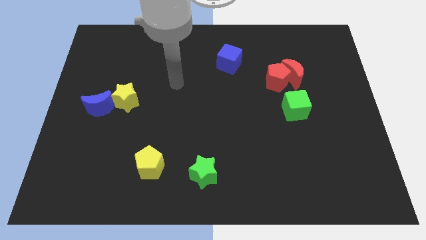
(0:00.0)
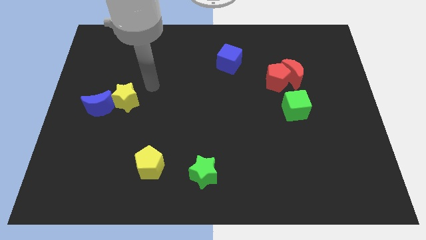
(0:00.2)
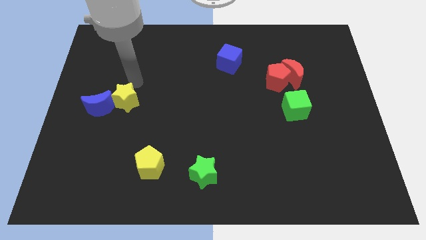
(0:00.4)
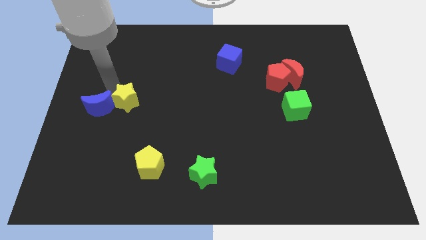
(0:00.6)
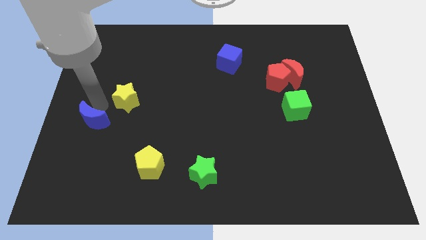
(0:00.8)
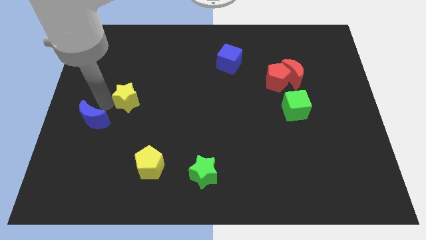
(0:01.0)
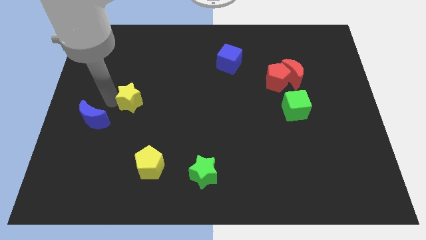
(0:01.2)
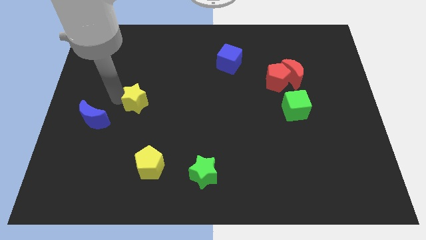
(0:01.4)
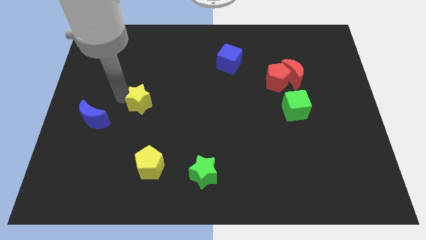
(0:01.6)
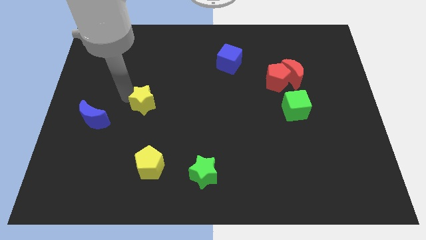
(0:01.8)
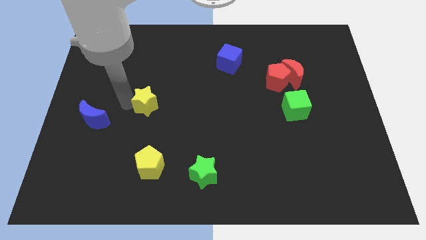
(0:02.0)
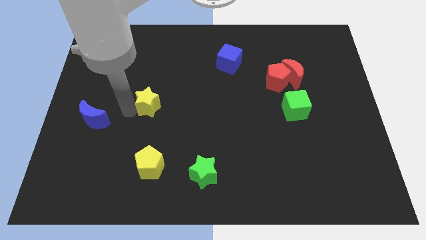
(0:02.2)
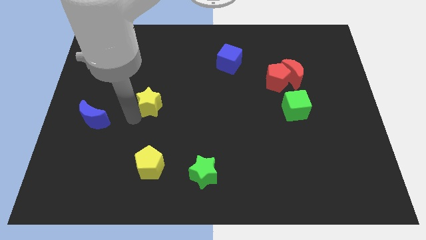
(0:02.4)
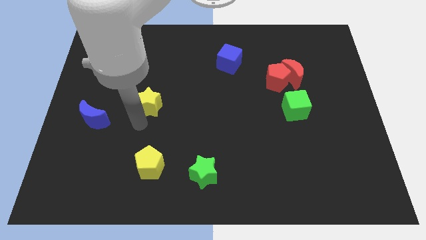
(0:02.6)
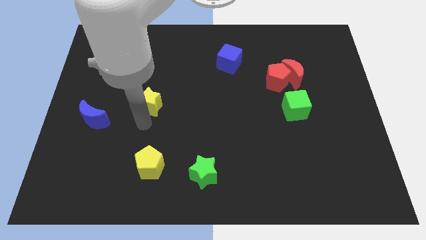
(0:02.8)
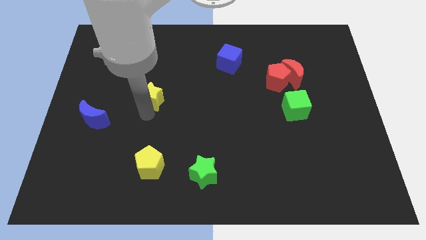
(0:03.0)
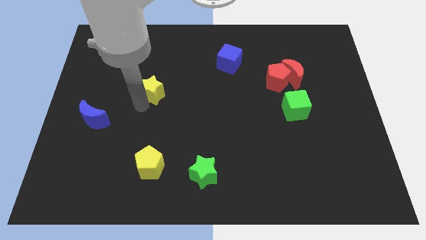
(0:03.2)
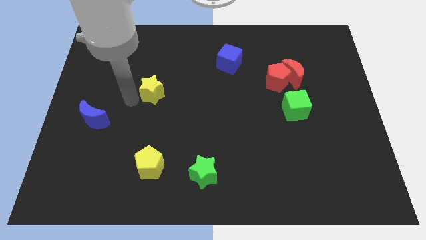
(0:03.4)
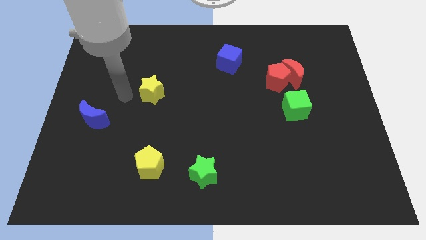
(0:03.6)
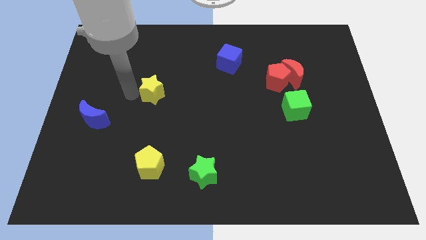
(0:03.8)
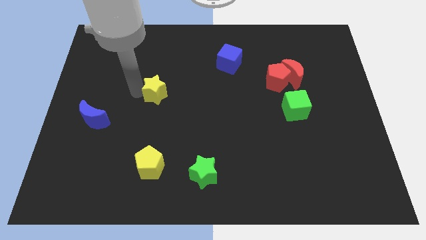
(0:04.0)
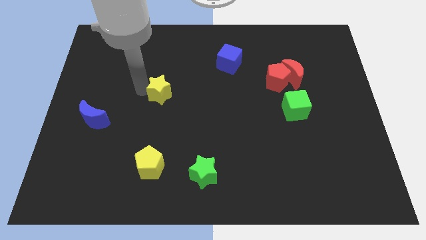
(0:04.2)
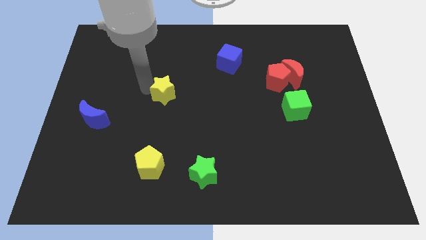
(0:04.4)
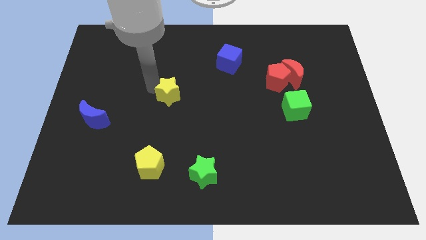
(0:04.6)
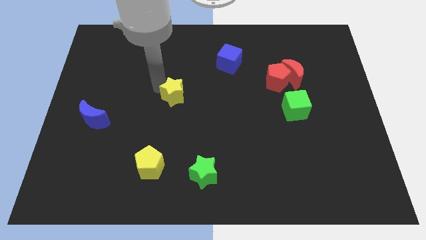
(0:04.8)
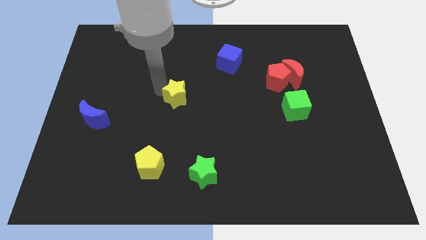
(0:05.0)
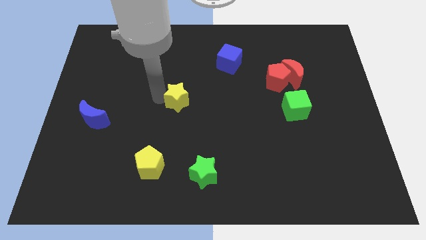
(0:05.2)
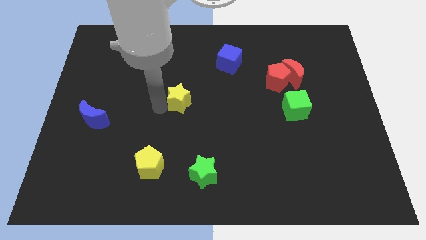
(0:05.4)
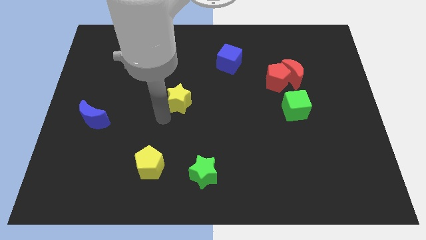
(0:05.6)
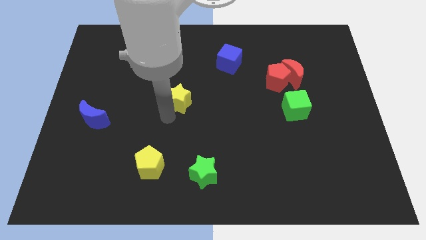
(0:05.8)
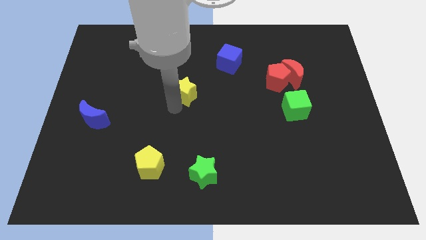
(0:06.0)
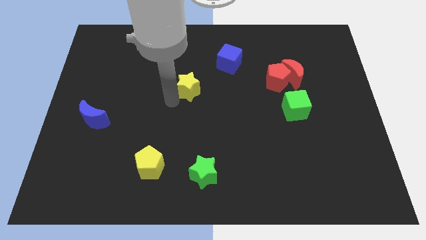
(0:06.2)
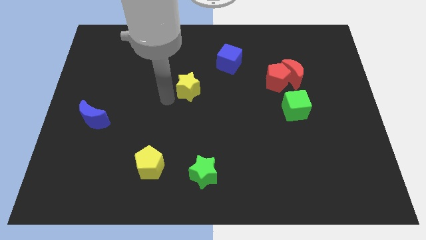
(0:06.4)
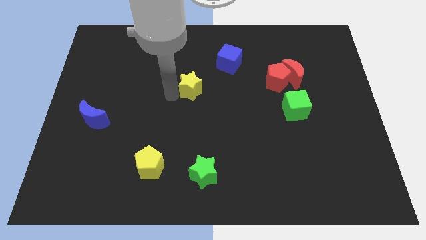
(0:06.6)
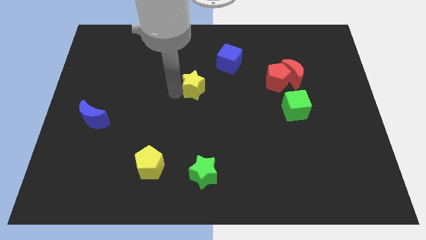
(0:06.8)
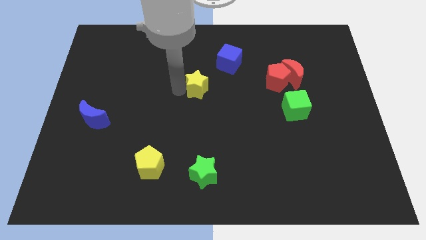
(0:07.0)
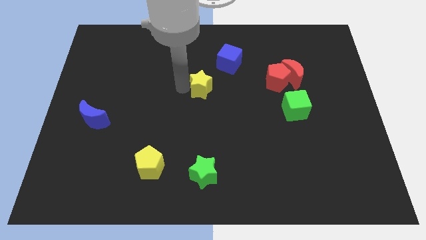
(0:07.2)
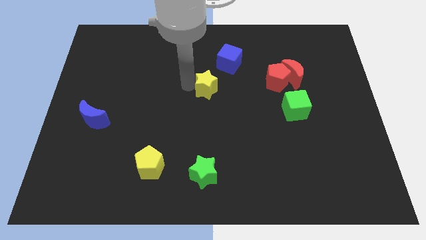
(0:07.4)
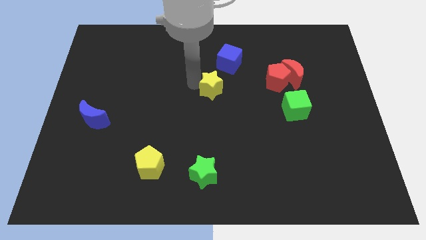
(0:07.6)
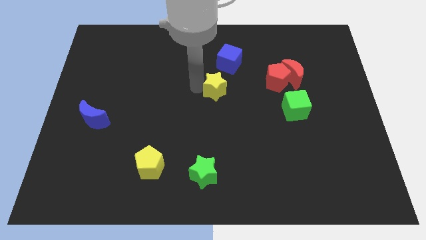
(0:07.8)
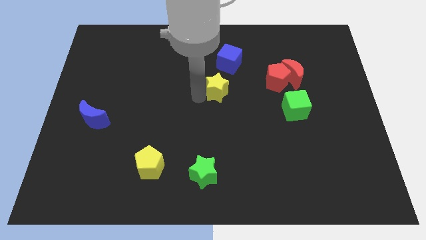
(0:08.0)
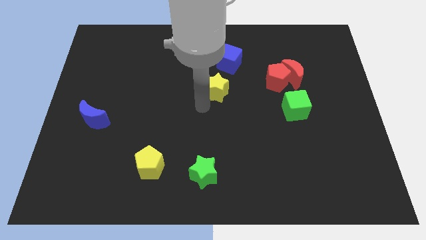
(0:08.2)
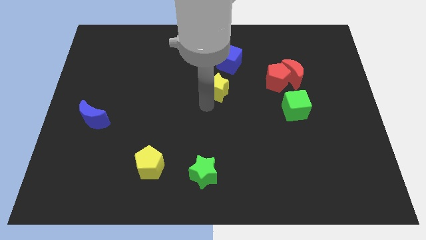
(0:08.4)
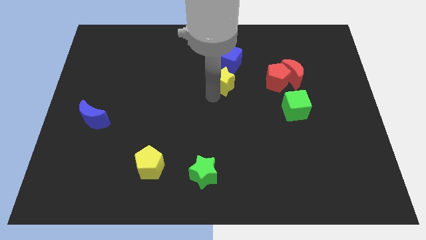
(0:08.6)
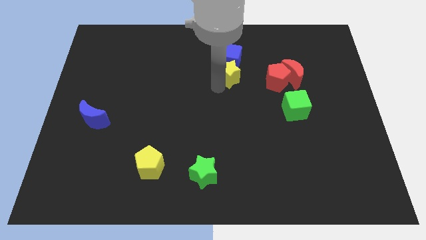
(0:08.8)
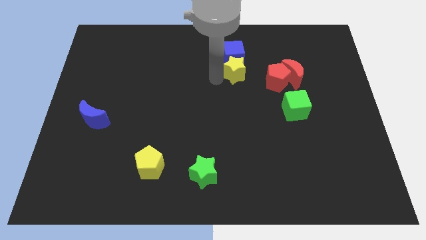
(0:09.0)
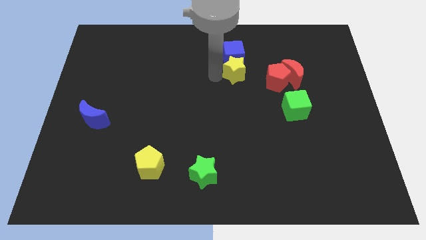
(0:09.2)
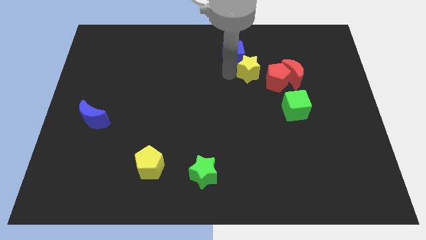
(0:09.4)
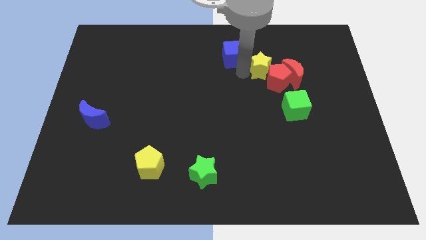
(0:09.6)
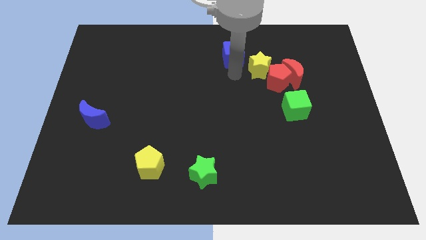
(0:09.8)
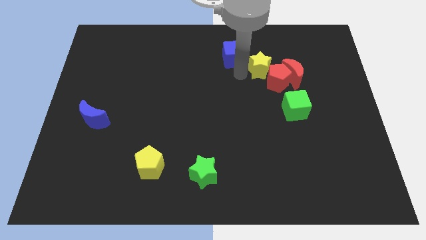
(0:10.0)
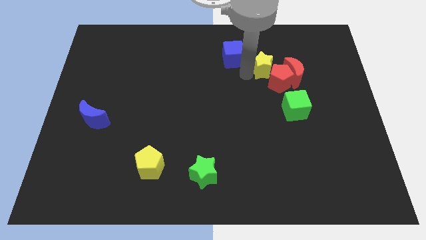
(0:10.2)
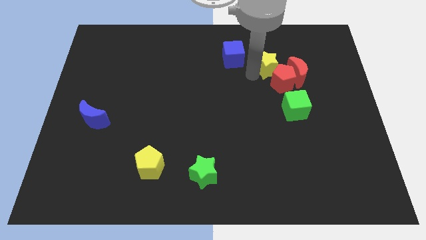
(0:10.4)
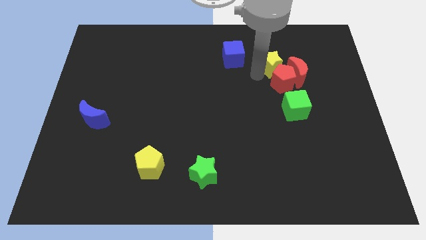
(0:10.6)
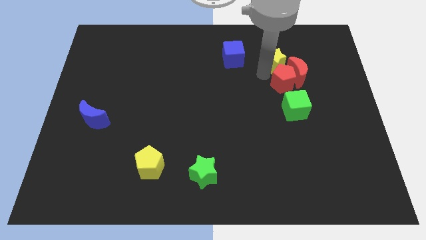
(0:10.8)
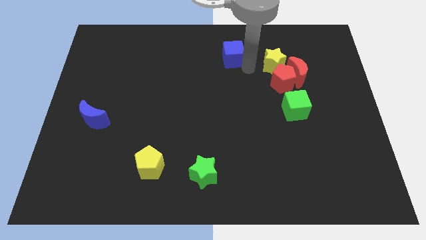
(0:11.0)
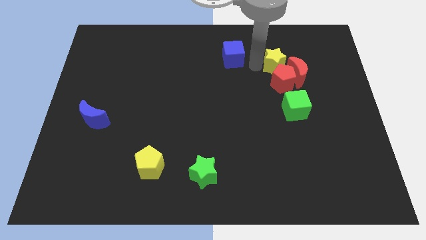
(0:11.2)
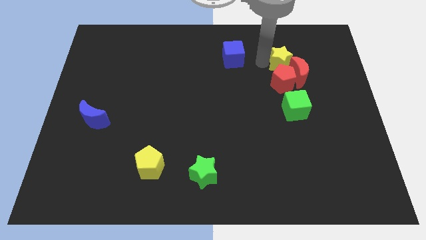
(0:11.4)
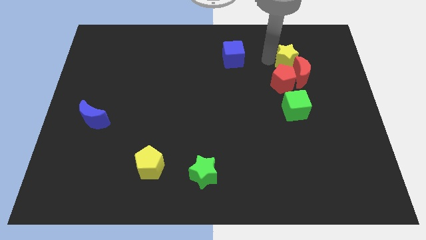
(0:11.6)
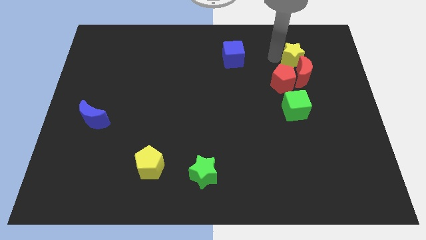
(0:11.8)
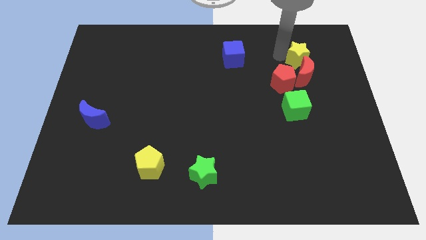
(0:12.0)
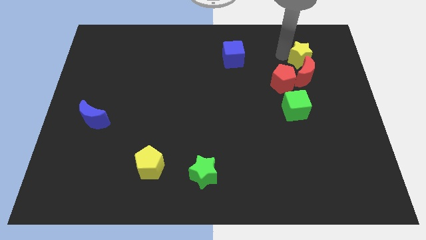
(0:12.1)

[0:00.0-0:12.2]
push the yellow star to the top right of the red moon

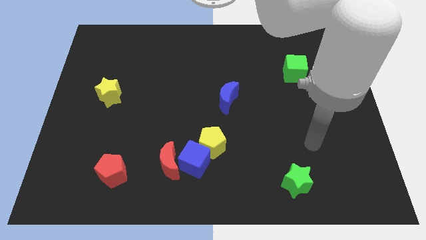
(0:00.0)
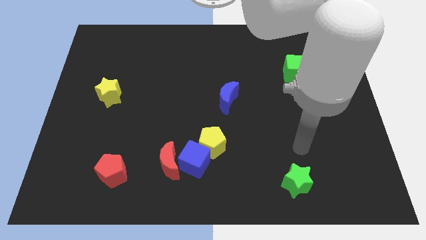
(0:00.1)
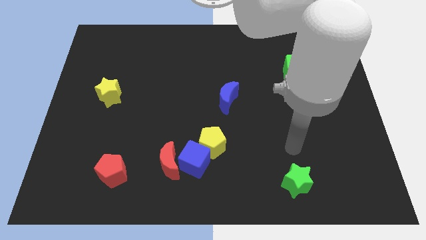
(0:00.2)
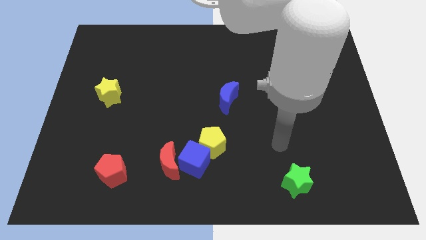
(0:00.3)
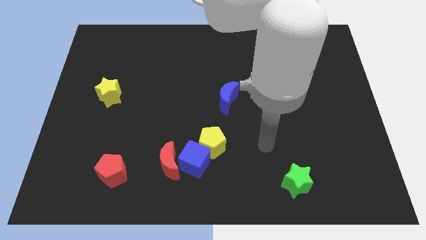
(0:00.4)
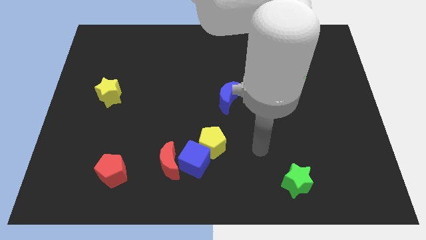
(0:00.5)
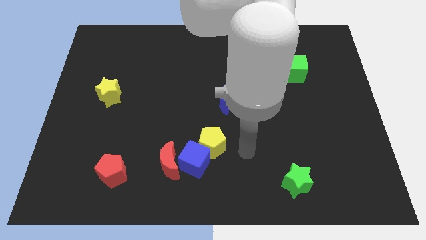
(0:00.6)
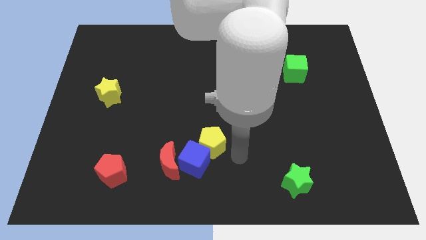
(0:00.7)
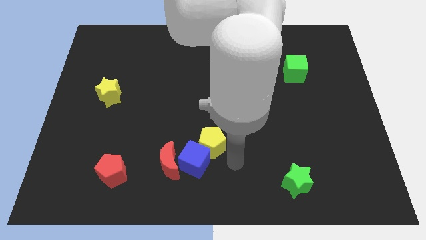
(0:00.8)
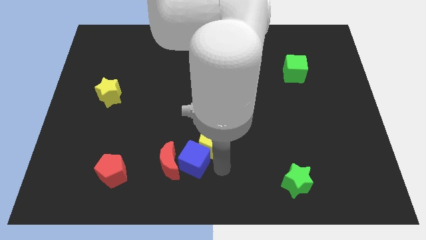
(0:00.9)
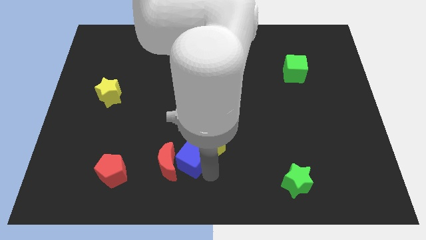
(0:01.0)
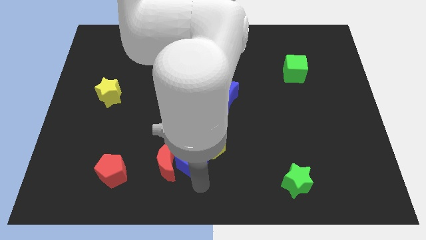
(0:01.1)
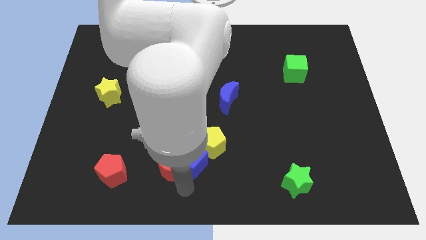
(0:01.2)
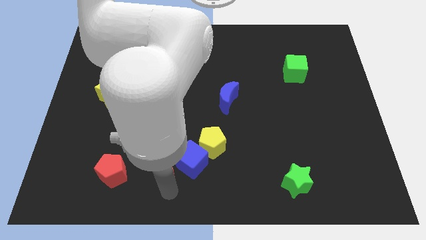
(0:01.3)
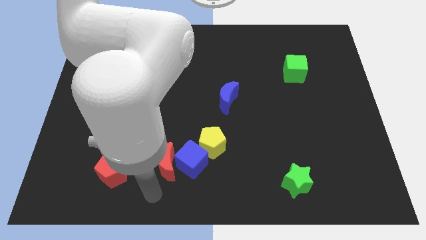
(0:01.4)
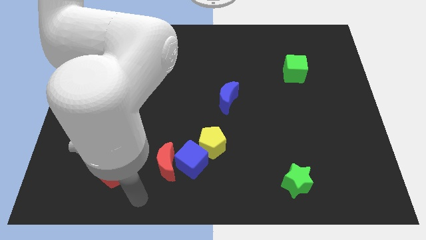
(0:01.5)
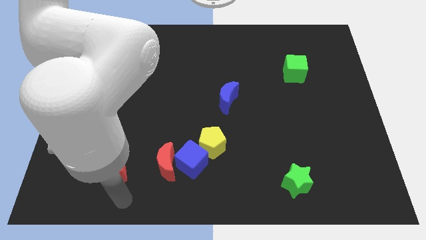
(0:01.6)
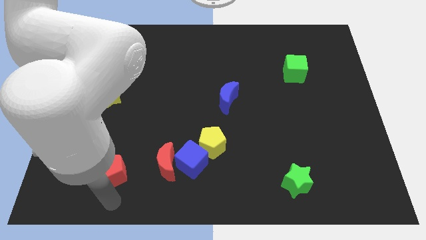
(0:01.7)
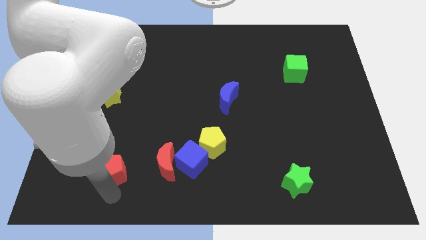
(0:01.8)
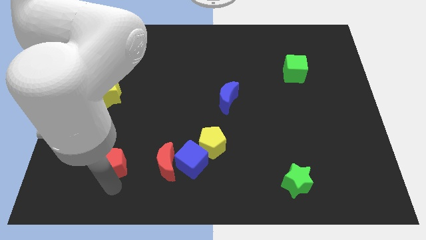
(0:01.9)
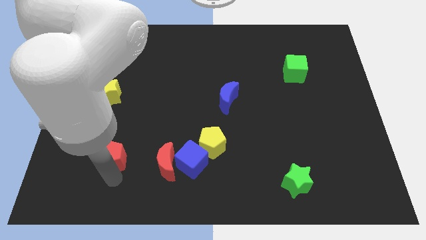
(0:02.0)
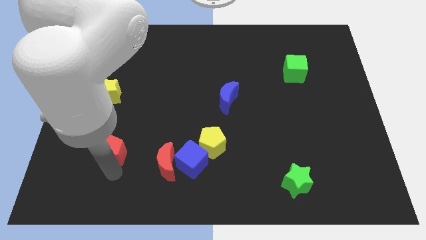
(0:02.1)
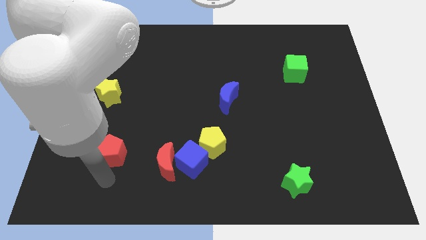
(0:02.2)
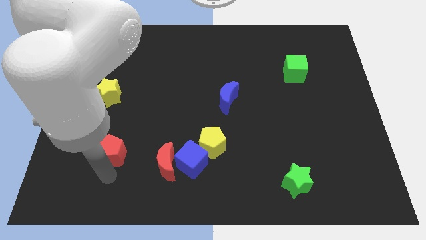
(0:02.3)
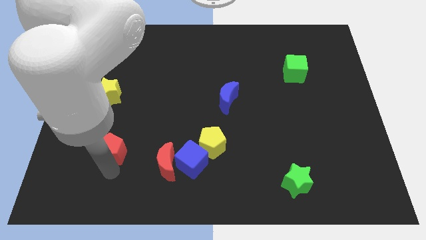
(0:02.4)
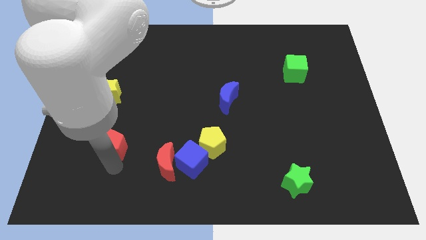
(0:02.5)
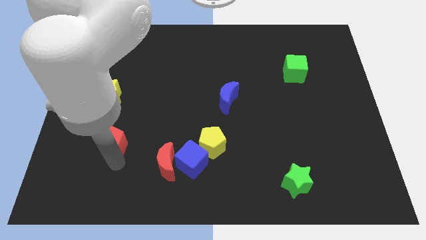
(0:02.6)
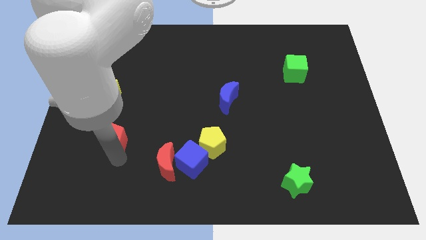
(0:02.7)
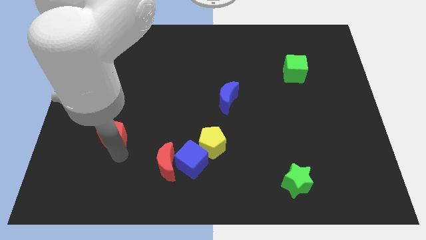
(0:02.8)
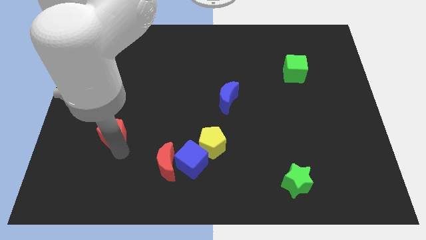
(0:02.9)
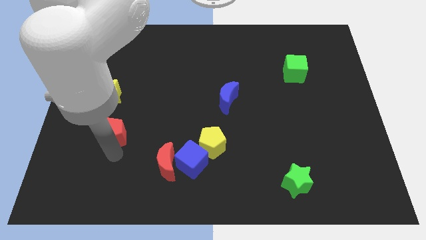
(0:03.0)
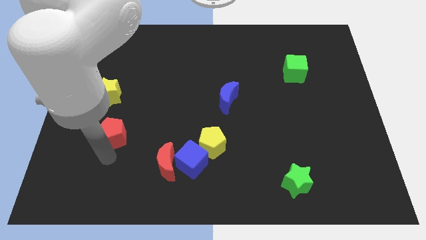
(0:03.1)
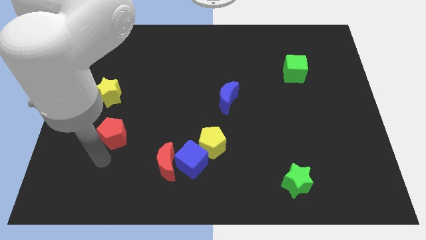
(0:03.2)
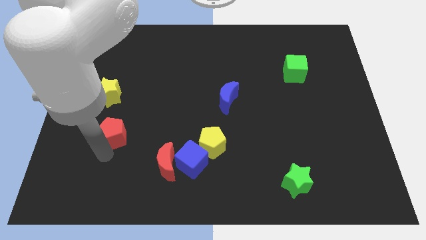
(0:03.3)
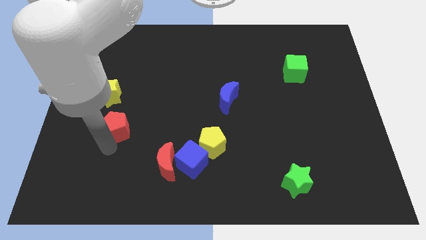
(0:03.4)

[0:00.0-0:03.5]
slide the red pentagon to the bottom right of the yellow star
